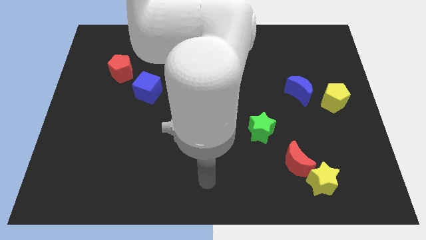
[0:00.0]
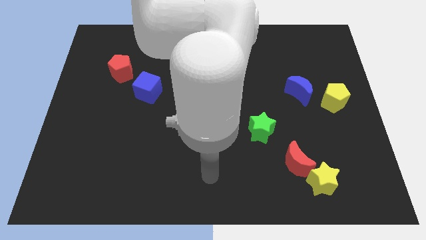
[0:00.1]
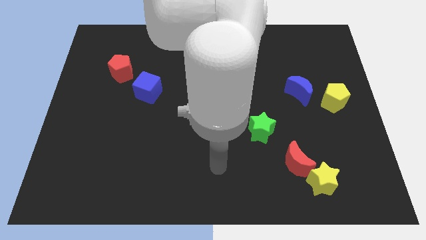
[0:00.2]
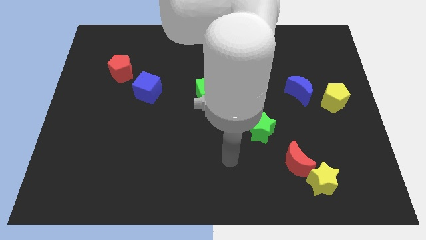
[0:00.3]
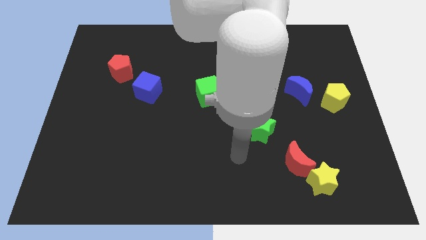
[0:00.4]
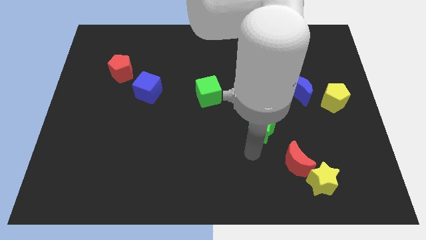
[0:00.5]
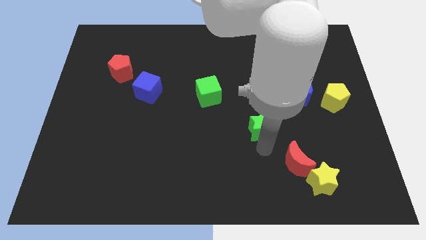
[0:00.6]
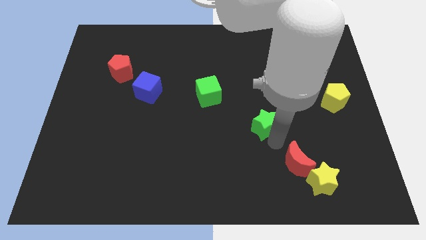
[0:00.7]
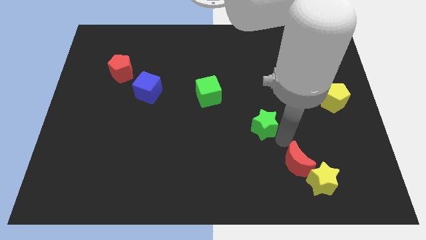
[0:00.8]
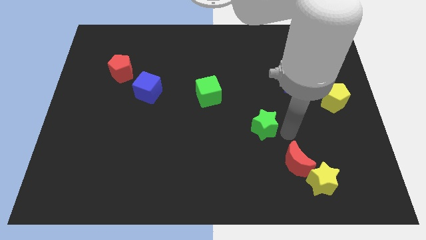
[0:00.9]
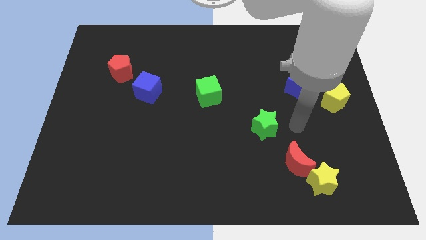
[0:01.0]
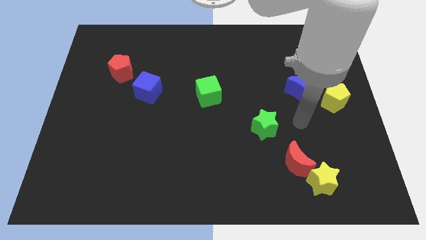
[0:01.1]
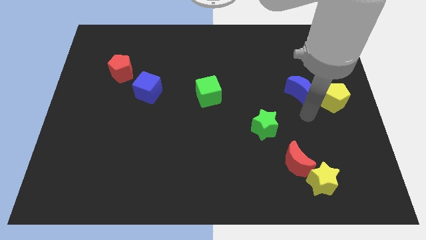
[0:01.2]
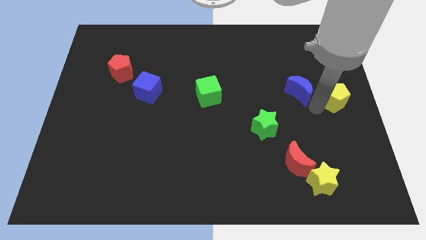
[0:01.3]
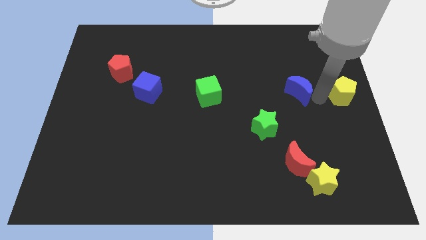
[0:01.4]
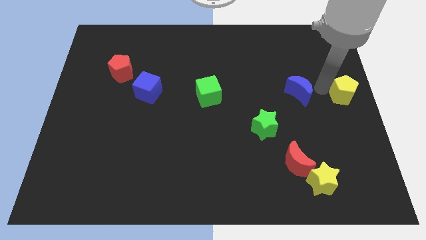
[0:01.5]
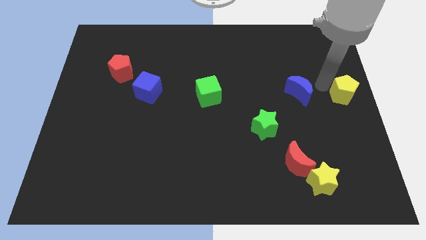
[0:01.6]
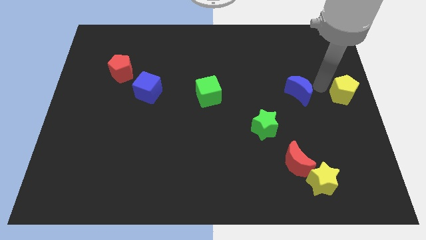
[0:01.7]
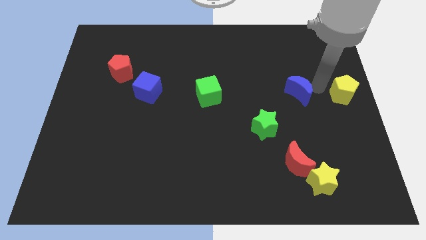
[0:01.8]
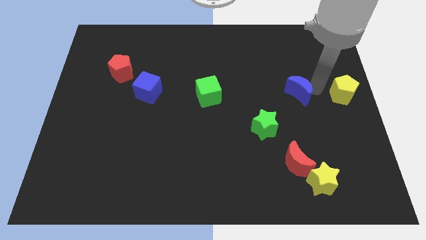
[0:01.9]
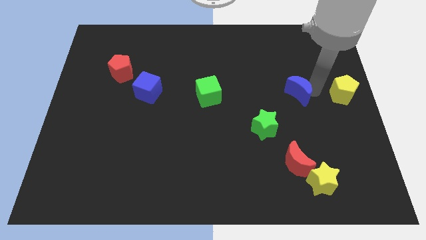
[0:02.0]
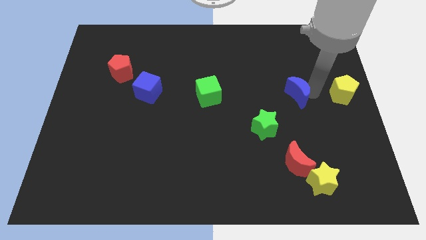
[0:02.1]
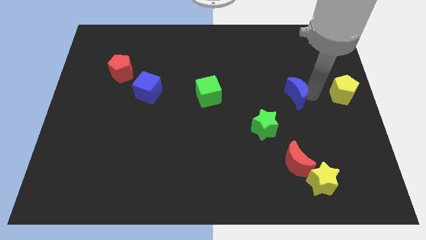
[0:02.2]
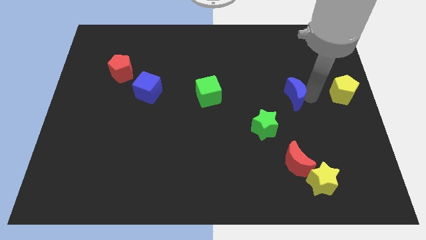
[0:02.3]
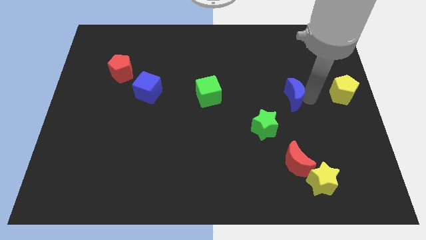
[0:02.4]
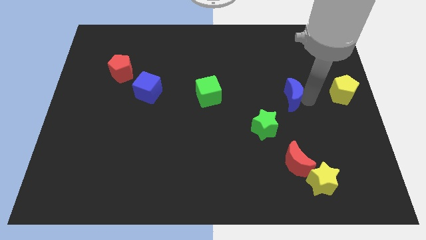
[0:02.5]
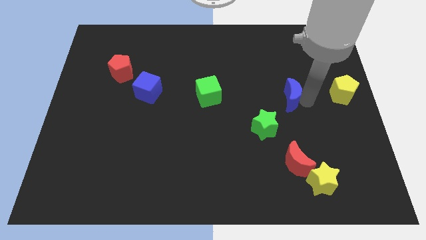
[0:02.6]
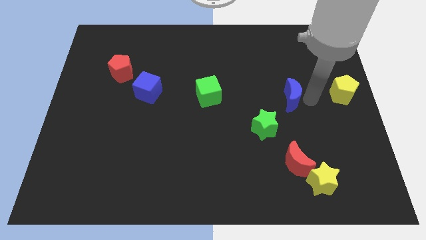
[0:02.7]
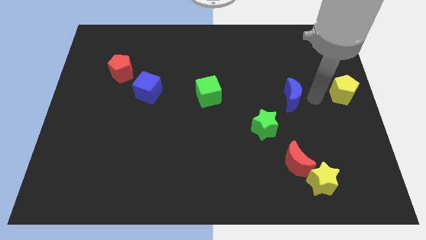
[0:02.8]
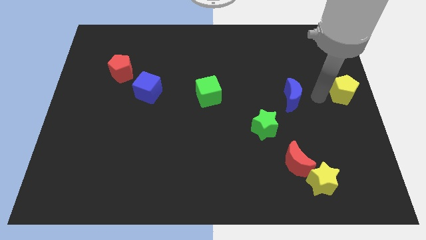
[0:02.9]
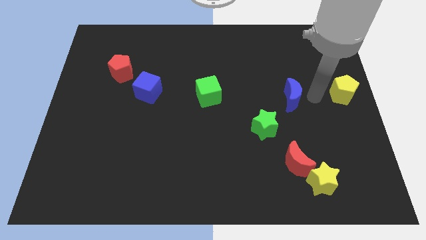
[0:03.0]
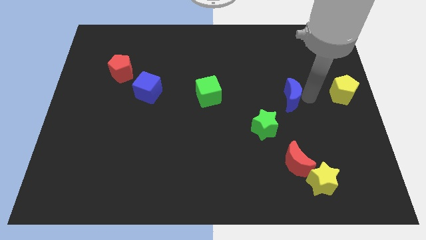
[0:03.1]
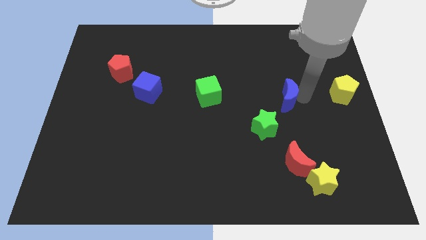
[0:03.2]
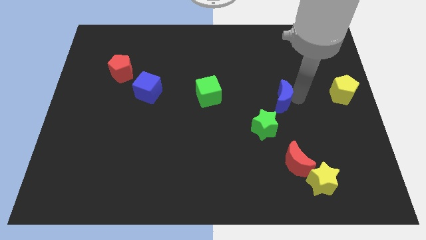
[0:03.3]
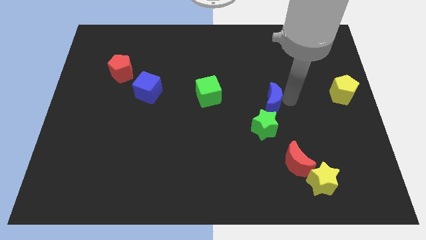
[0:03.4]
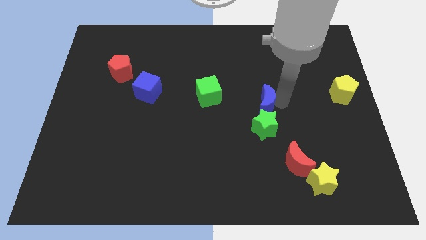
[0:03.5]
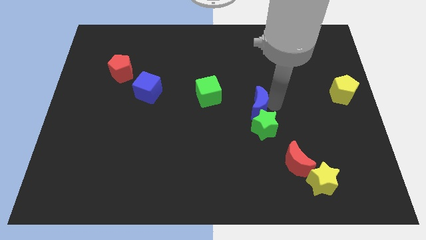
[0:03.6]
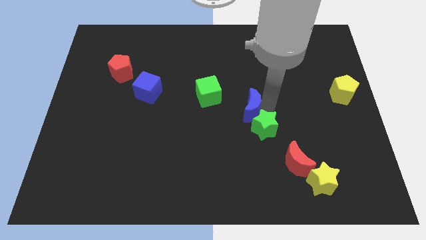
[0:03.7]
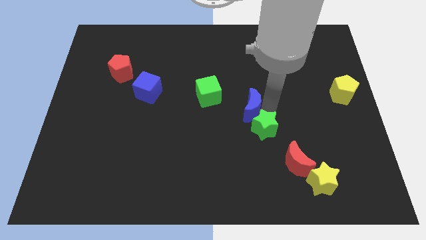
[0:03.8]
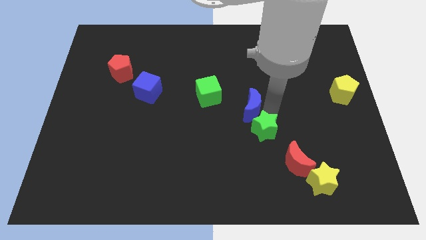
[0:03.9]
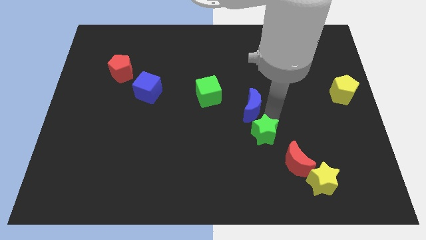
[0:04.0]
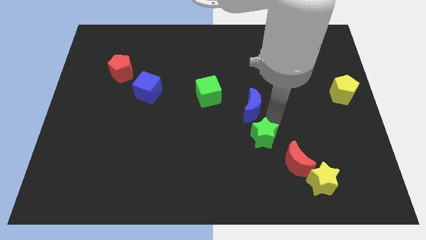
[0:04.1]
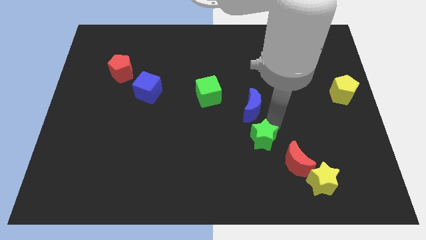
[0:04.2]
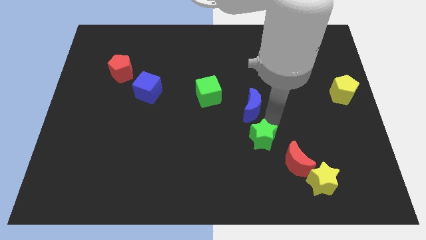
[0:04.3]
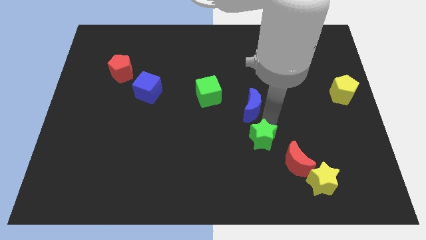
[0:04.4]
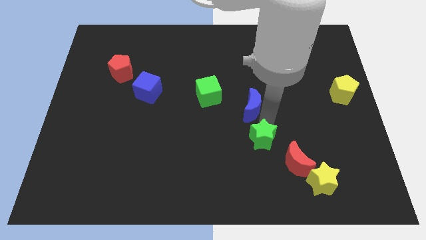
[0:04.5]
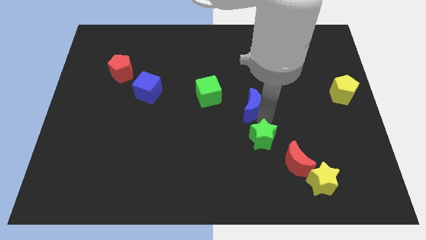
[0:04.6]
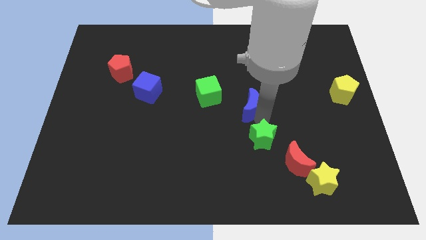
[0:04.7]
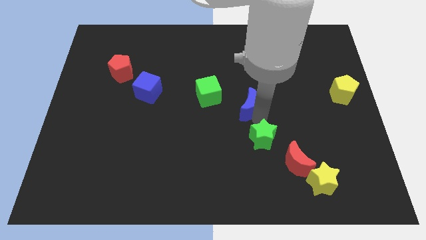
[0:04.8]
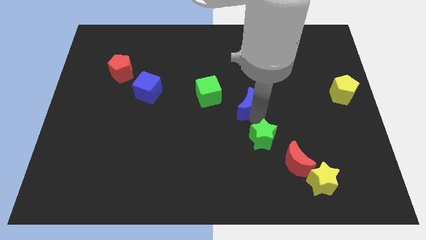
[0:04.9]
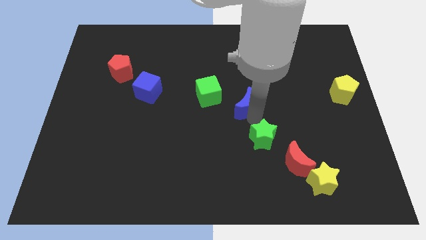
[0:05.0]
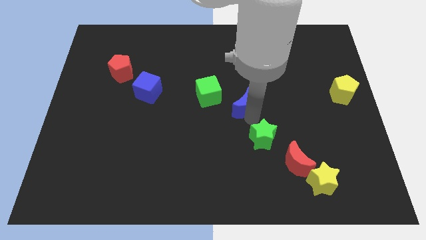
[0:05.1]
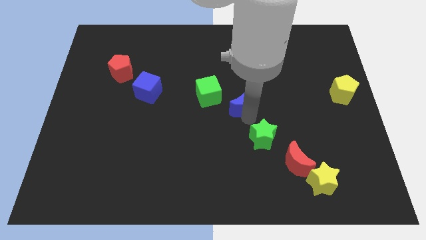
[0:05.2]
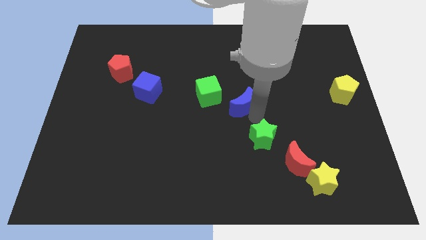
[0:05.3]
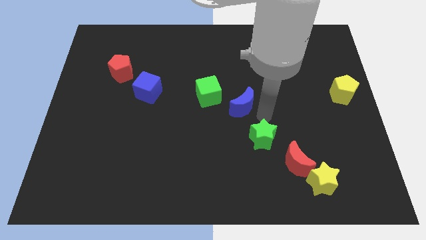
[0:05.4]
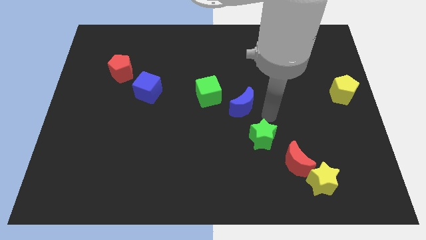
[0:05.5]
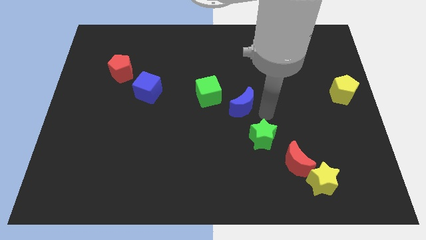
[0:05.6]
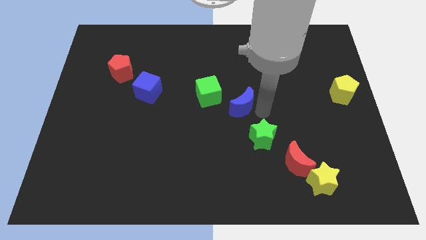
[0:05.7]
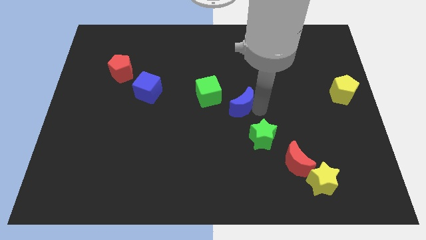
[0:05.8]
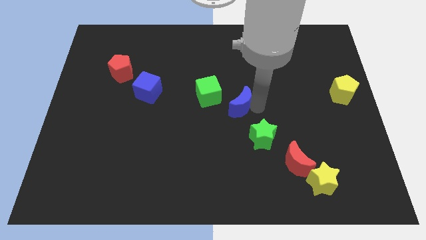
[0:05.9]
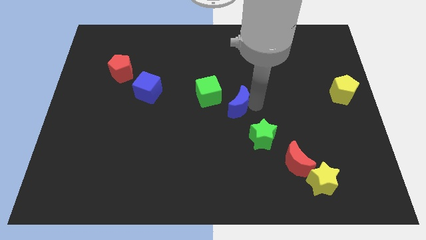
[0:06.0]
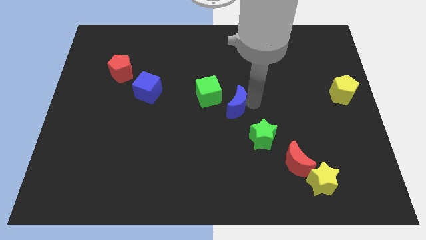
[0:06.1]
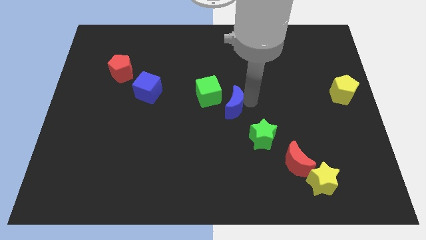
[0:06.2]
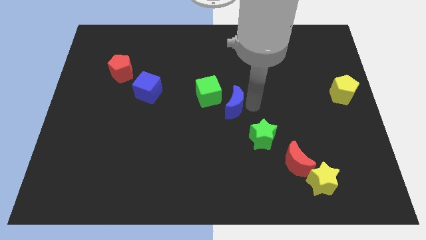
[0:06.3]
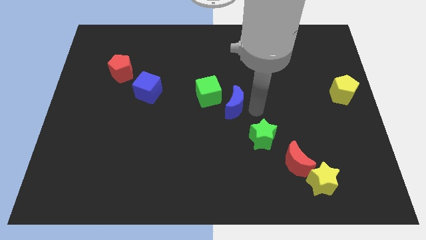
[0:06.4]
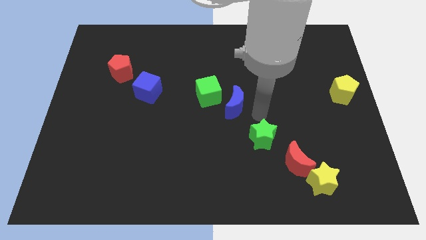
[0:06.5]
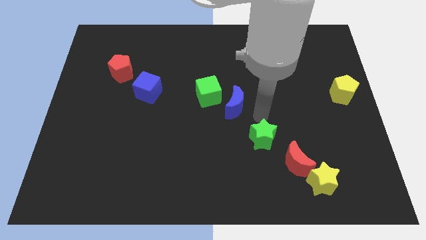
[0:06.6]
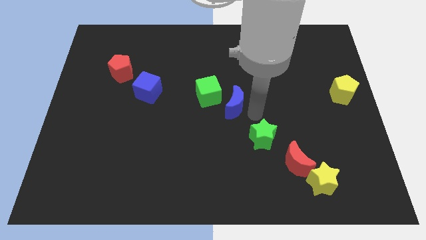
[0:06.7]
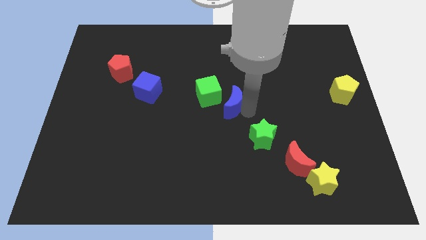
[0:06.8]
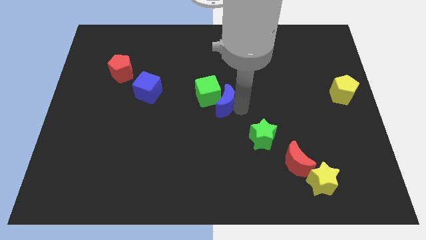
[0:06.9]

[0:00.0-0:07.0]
put the blue moon to the green cube

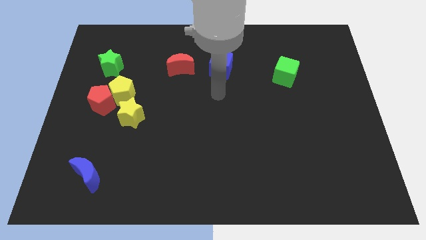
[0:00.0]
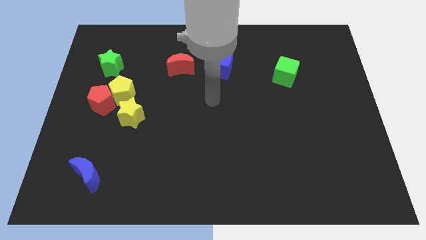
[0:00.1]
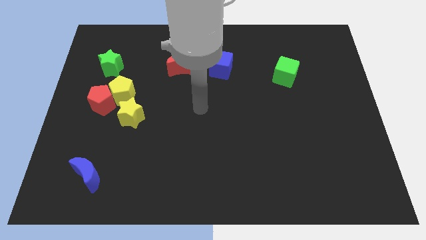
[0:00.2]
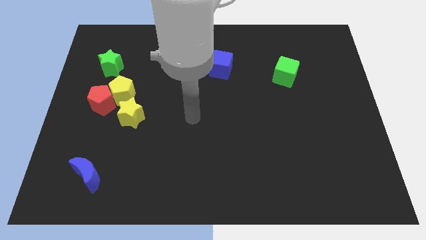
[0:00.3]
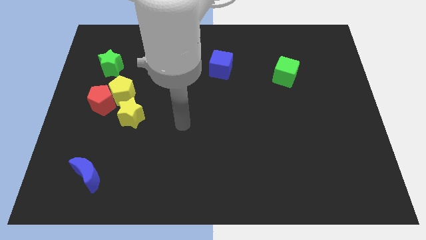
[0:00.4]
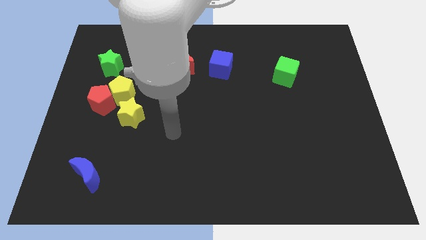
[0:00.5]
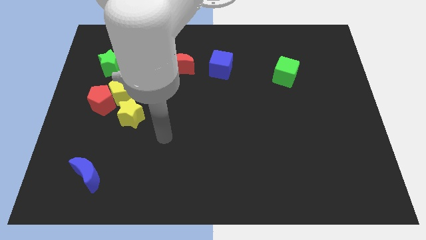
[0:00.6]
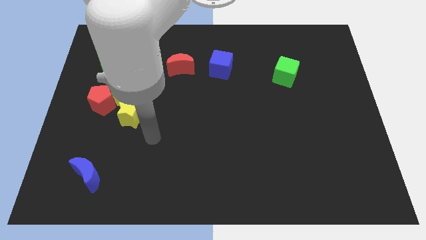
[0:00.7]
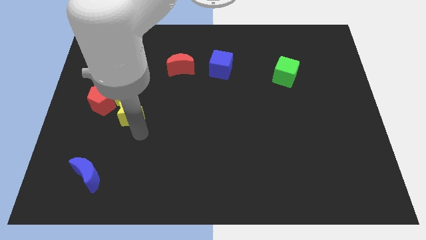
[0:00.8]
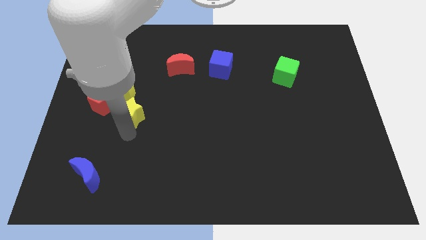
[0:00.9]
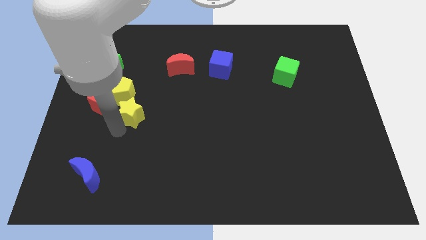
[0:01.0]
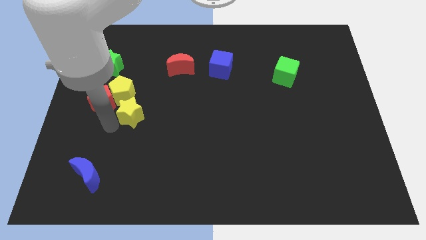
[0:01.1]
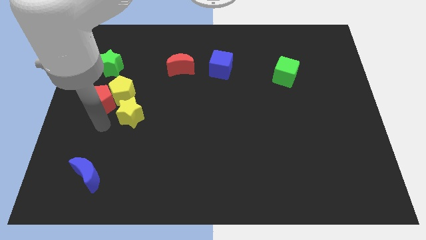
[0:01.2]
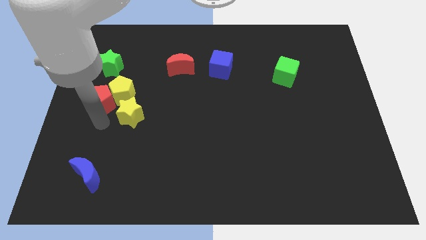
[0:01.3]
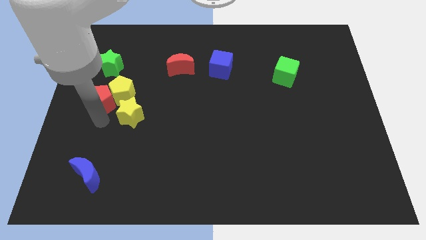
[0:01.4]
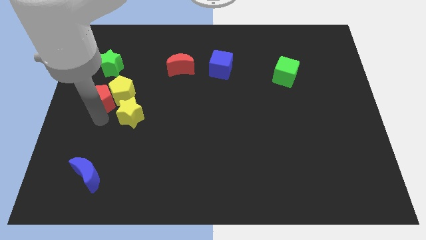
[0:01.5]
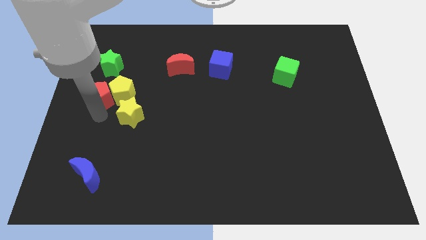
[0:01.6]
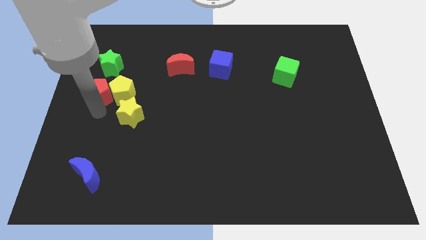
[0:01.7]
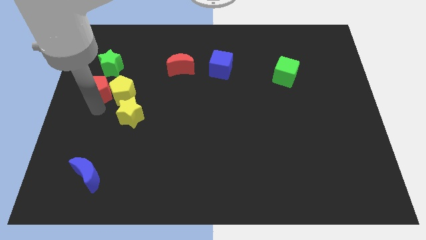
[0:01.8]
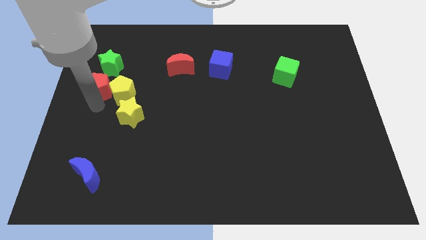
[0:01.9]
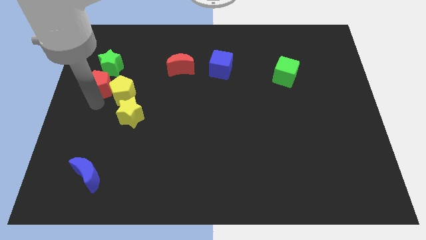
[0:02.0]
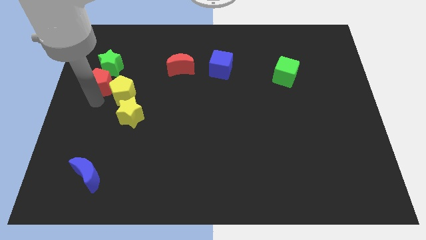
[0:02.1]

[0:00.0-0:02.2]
push the red pentagon close to the green star
